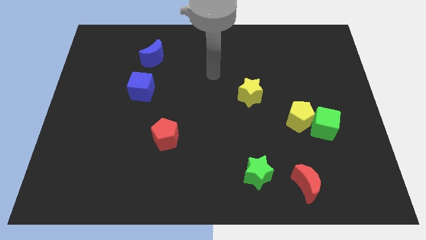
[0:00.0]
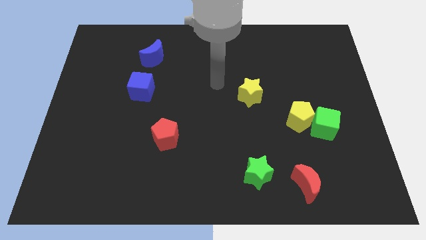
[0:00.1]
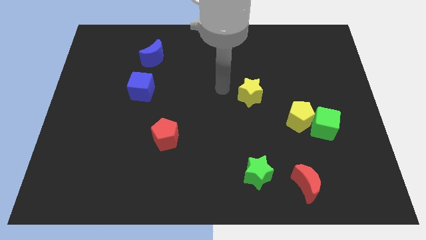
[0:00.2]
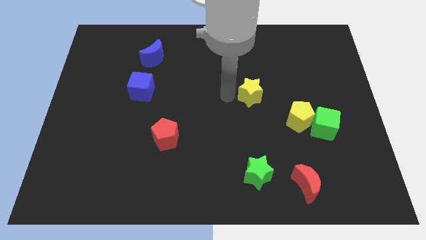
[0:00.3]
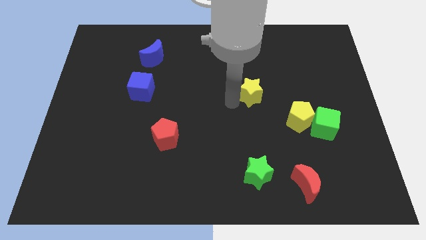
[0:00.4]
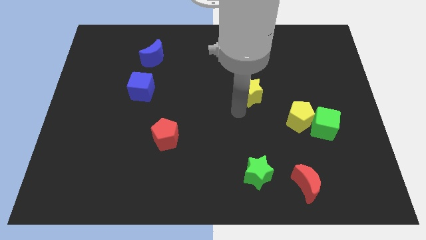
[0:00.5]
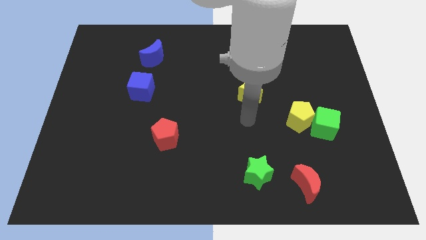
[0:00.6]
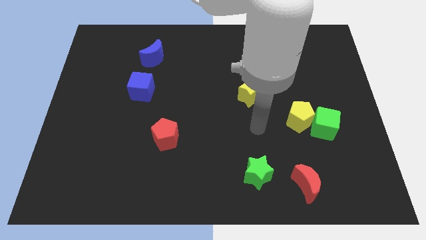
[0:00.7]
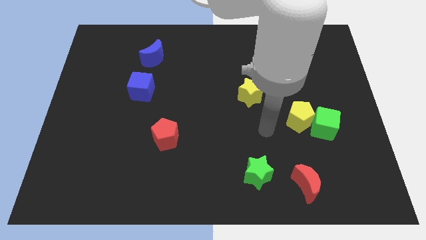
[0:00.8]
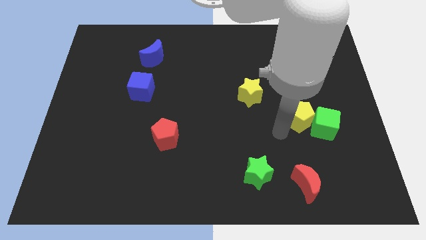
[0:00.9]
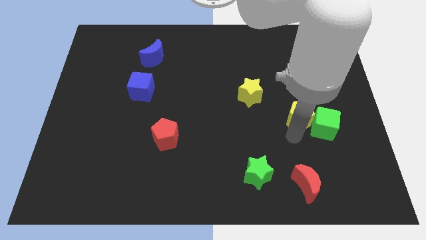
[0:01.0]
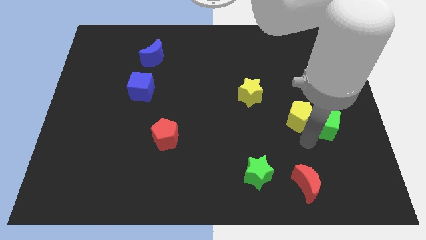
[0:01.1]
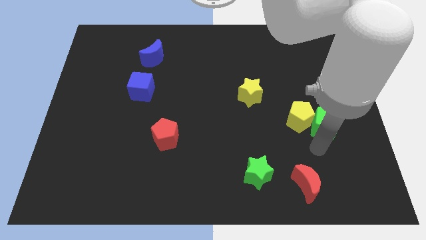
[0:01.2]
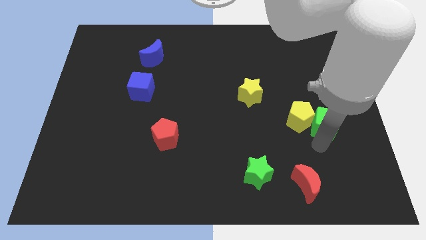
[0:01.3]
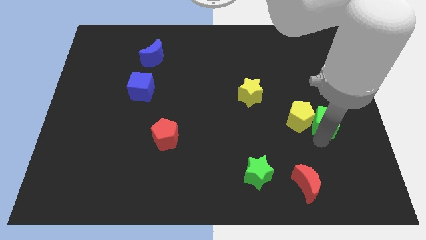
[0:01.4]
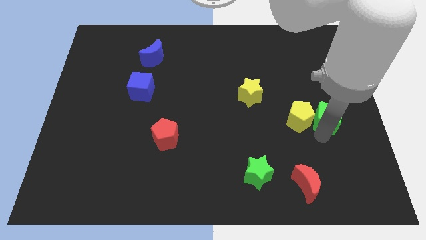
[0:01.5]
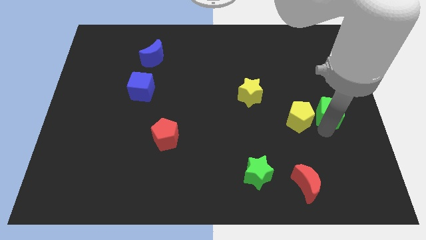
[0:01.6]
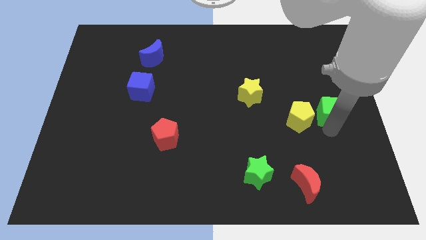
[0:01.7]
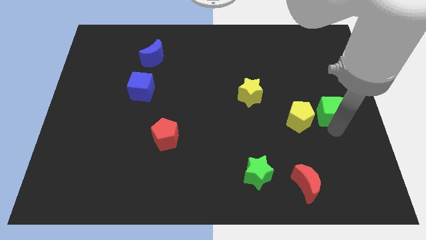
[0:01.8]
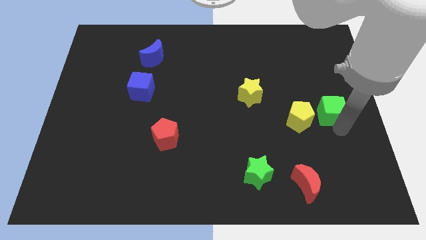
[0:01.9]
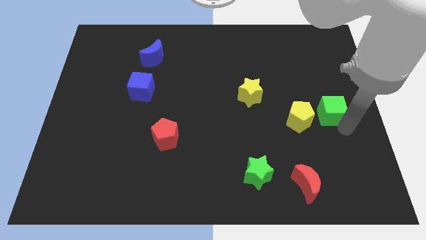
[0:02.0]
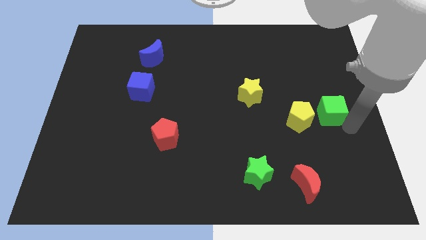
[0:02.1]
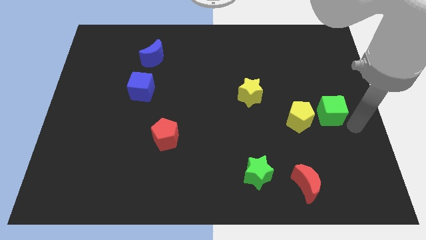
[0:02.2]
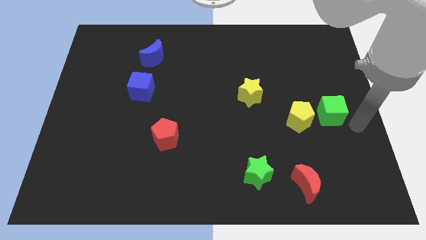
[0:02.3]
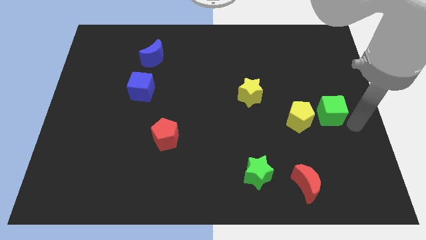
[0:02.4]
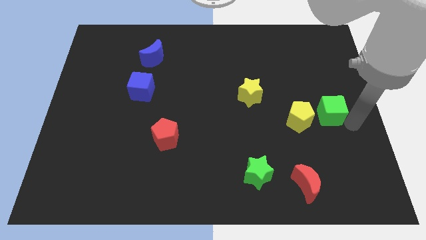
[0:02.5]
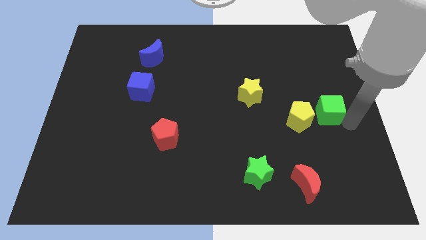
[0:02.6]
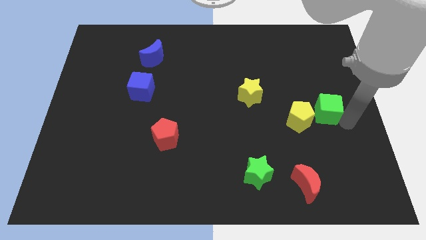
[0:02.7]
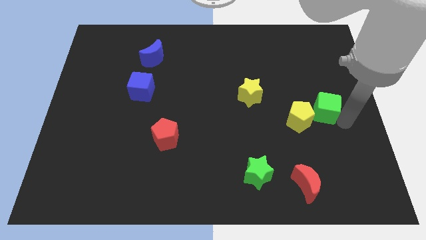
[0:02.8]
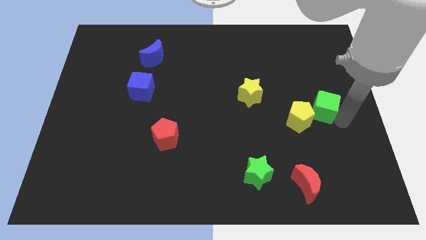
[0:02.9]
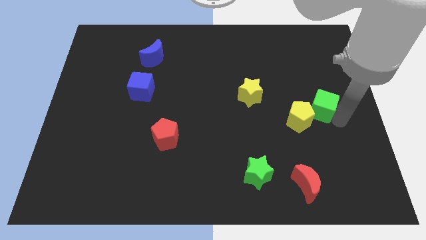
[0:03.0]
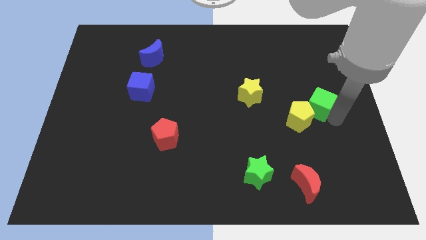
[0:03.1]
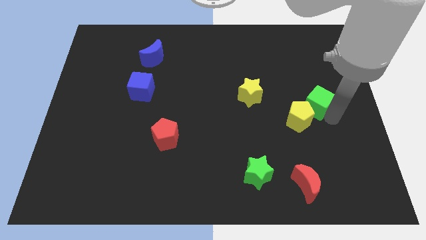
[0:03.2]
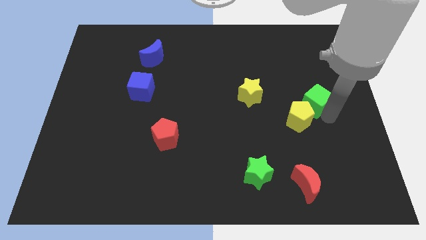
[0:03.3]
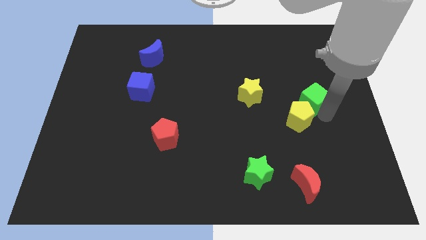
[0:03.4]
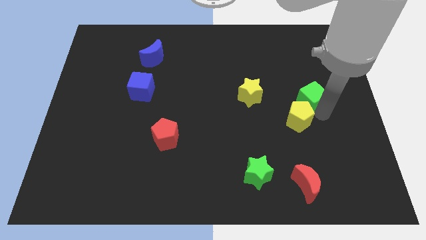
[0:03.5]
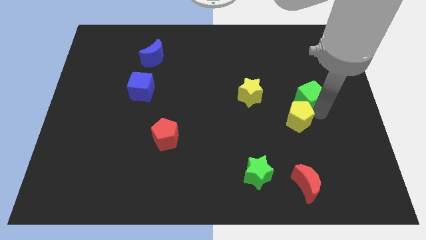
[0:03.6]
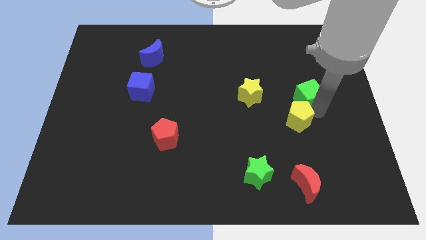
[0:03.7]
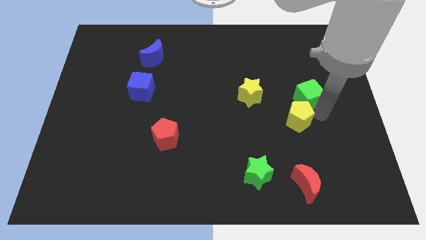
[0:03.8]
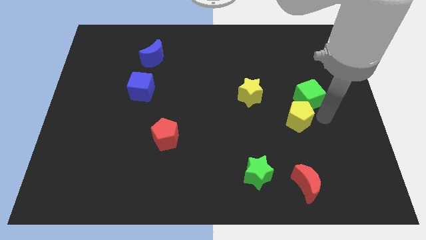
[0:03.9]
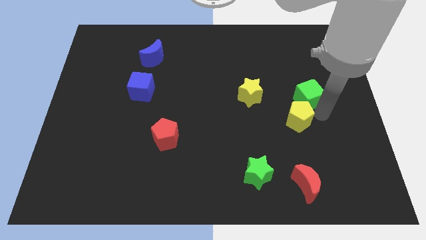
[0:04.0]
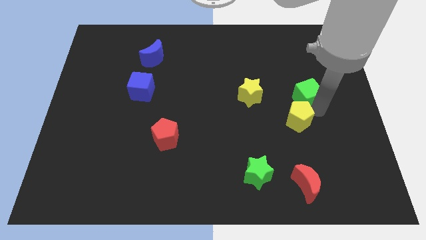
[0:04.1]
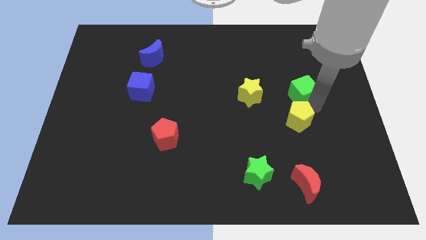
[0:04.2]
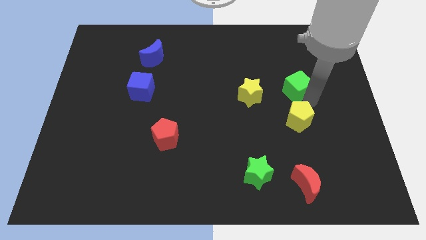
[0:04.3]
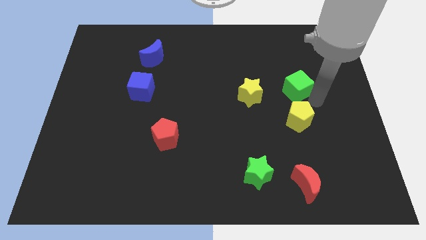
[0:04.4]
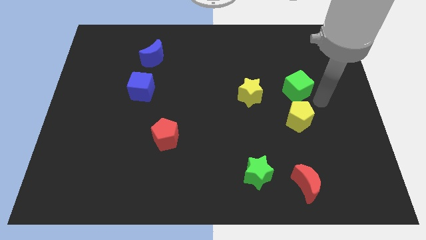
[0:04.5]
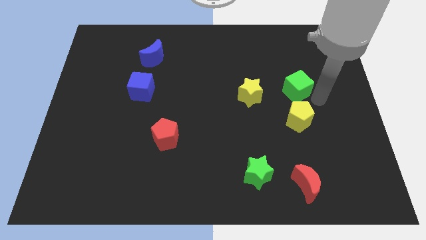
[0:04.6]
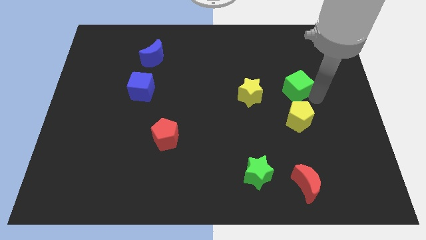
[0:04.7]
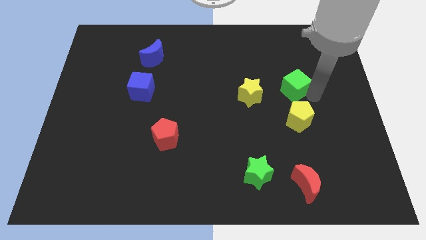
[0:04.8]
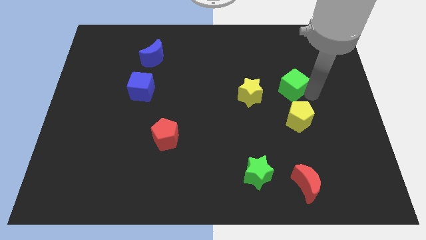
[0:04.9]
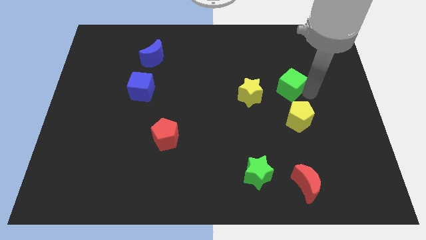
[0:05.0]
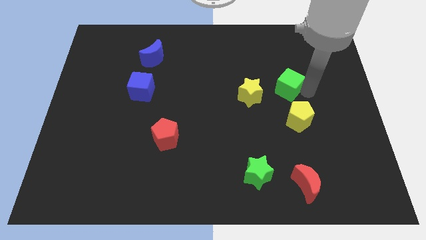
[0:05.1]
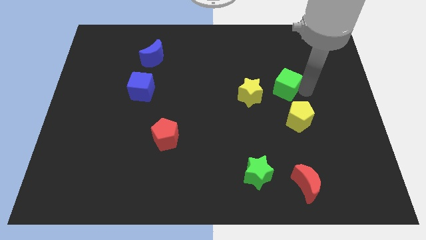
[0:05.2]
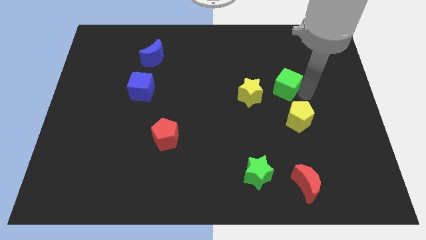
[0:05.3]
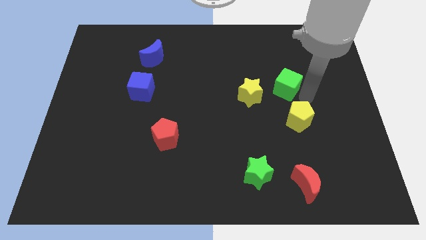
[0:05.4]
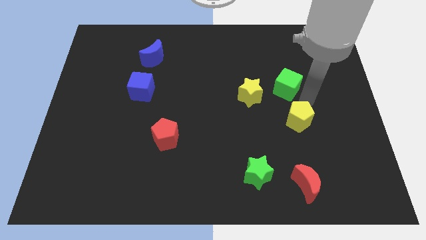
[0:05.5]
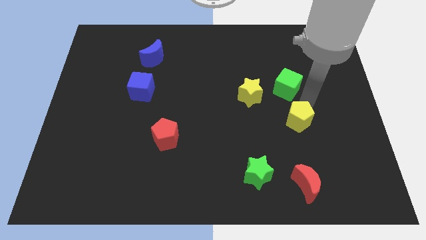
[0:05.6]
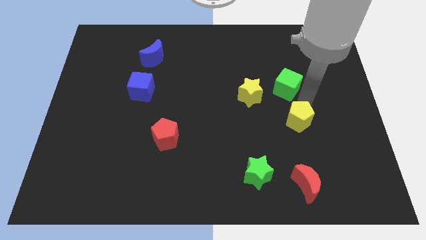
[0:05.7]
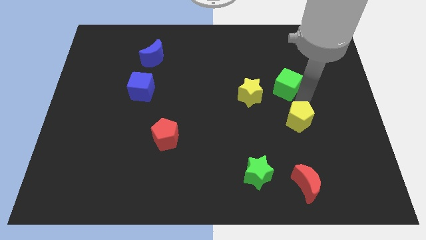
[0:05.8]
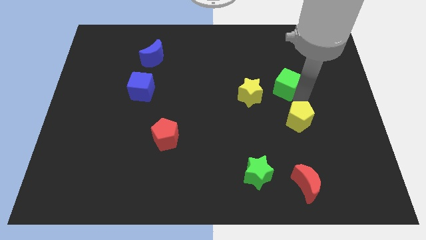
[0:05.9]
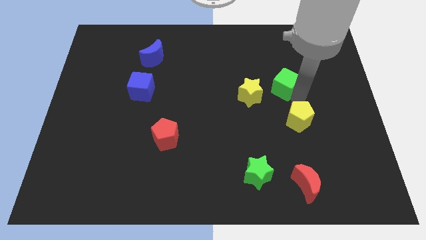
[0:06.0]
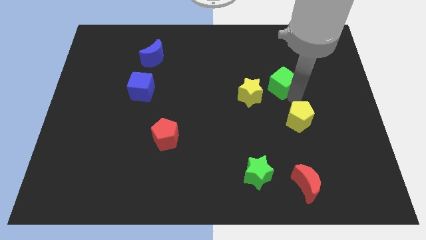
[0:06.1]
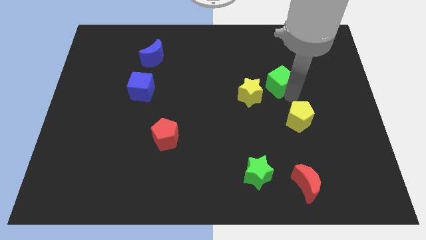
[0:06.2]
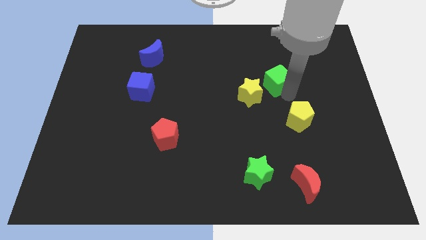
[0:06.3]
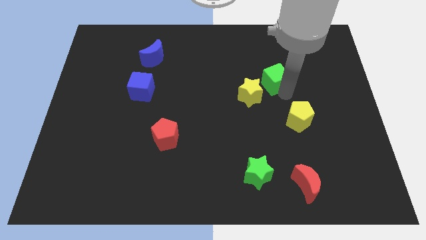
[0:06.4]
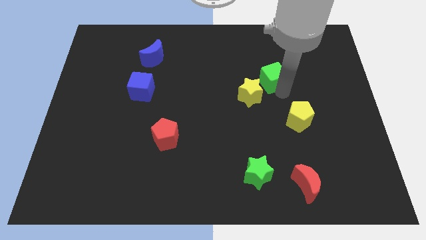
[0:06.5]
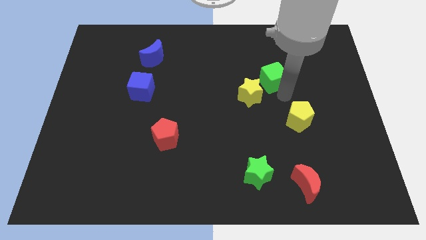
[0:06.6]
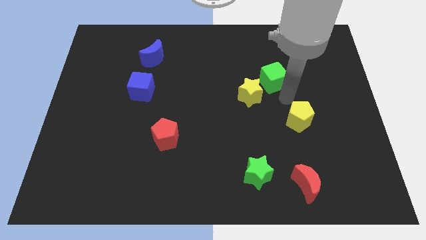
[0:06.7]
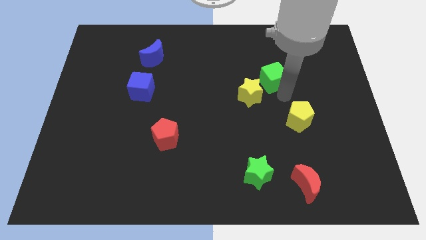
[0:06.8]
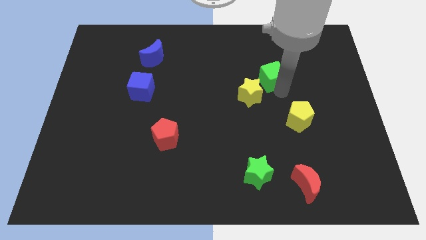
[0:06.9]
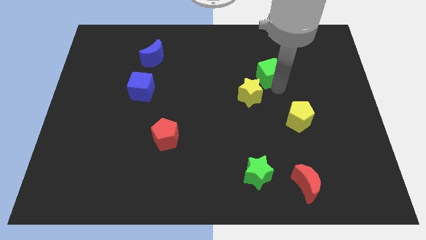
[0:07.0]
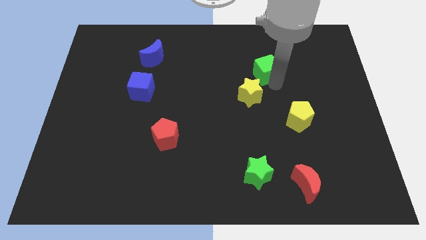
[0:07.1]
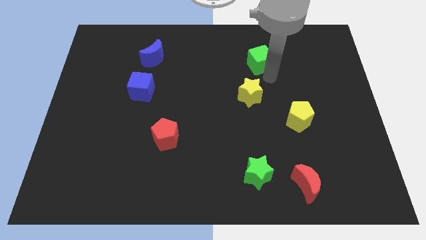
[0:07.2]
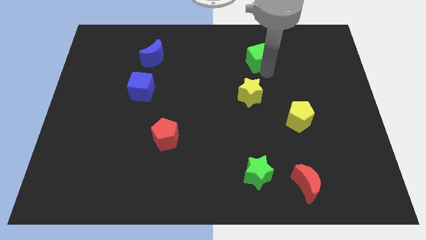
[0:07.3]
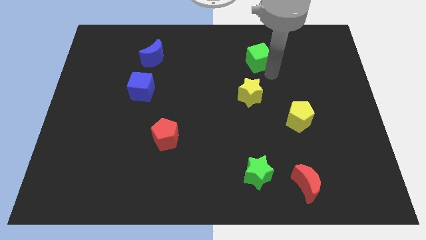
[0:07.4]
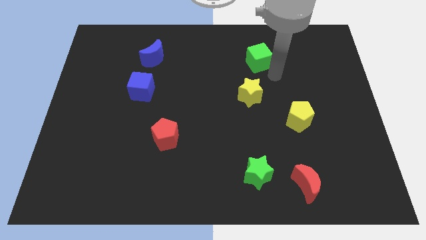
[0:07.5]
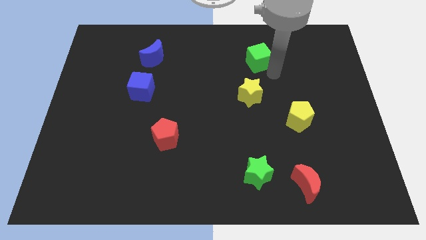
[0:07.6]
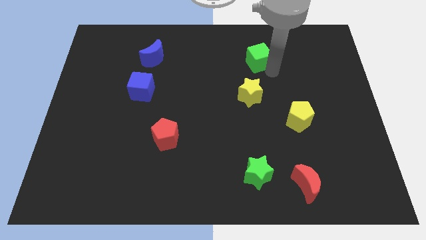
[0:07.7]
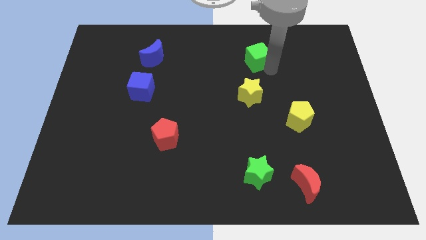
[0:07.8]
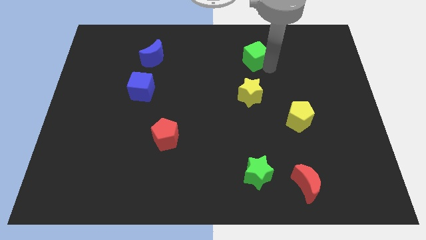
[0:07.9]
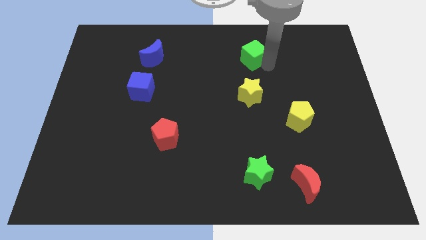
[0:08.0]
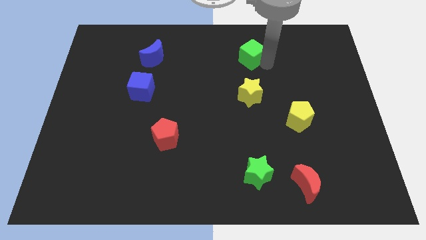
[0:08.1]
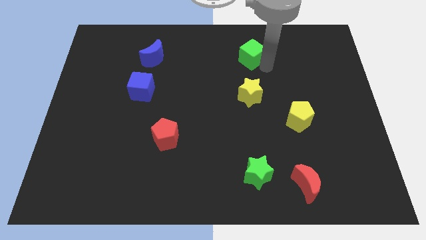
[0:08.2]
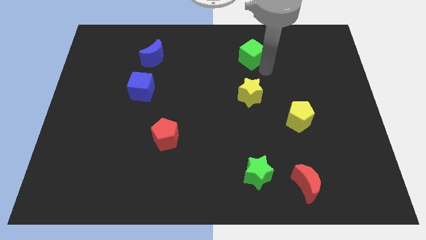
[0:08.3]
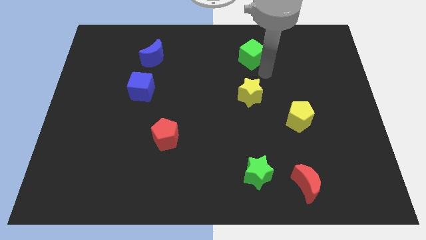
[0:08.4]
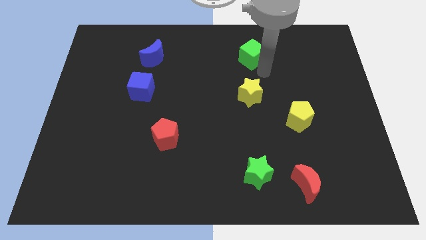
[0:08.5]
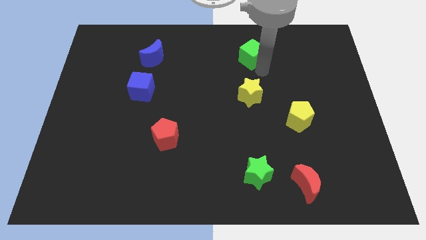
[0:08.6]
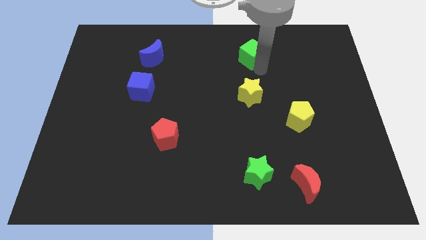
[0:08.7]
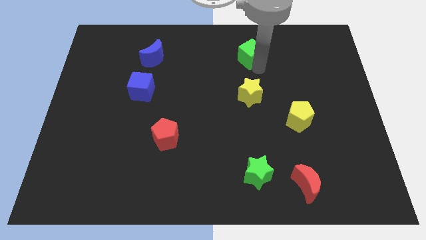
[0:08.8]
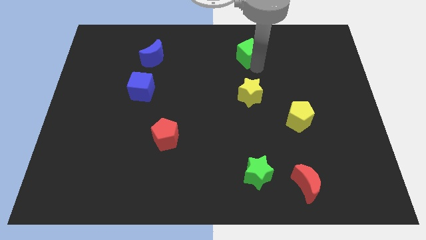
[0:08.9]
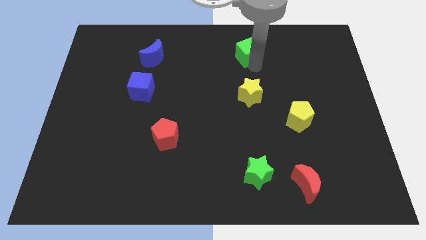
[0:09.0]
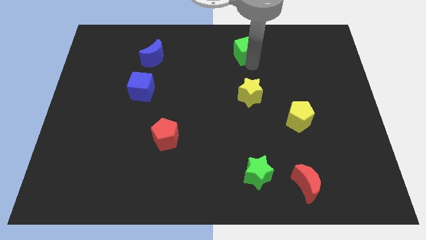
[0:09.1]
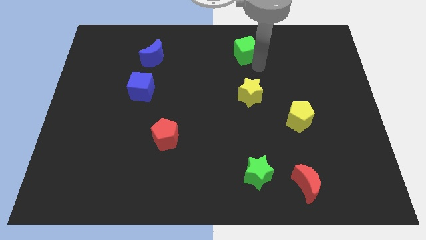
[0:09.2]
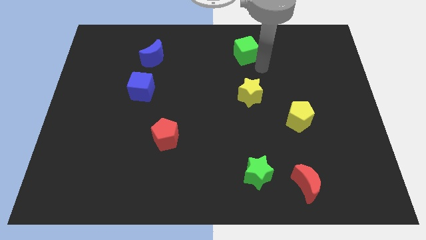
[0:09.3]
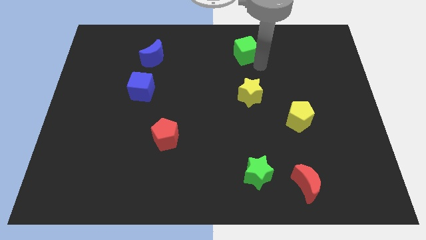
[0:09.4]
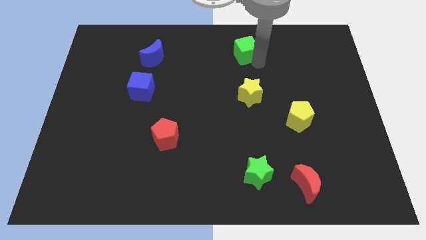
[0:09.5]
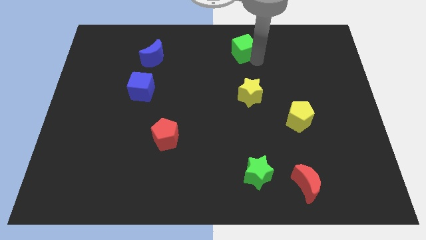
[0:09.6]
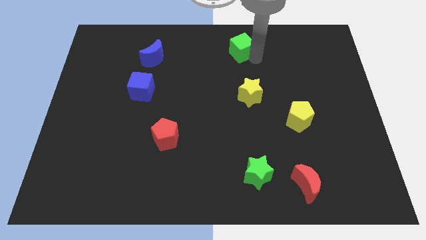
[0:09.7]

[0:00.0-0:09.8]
push the green cube to the top side
